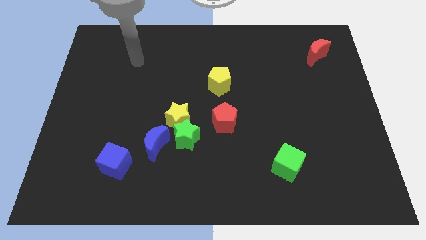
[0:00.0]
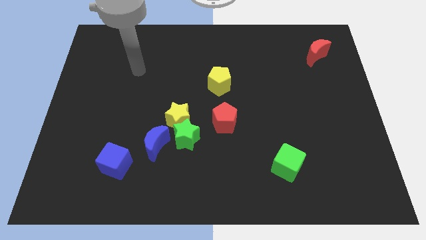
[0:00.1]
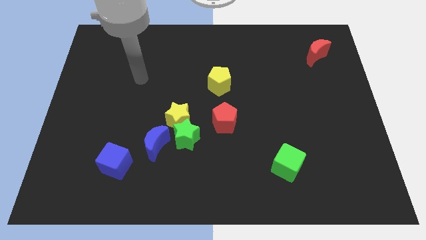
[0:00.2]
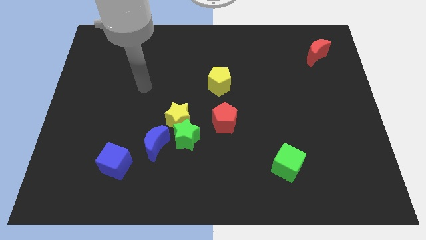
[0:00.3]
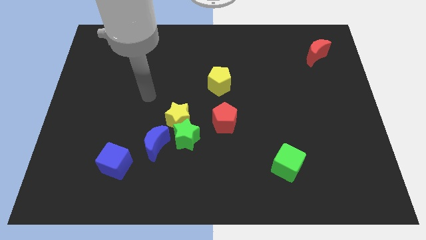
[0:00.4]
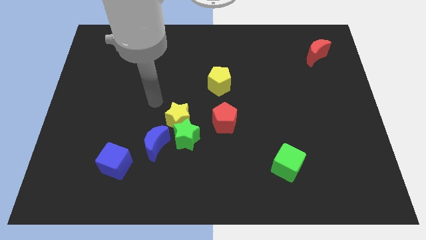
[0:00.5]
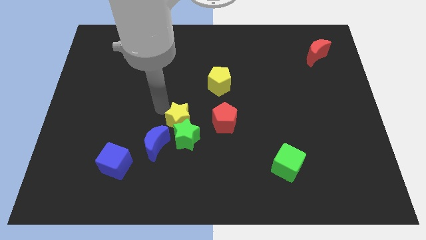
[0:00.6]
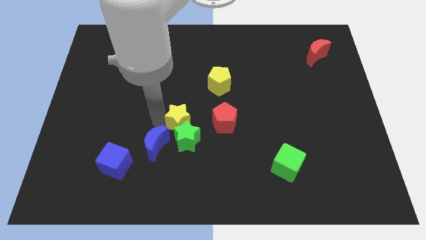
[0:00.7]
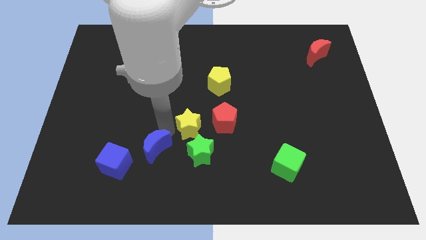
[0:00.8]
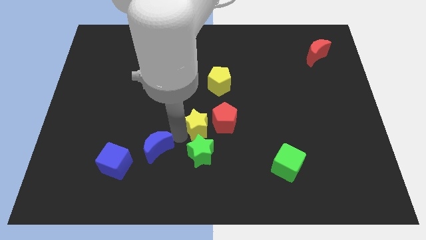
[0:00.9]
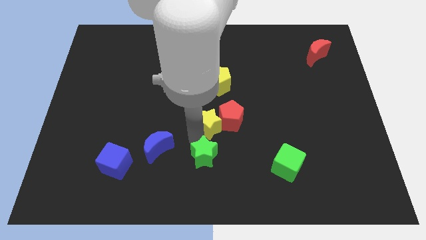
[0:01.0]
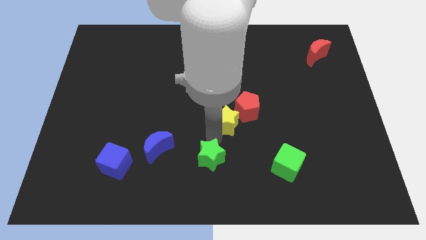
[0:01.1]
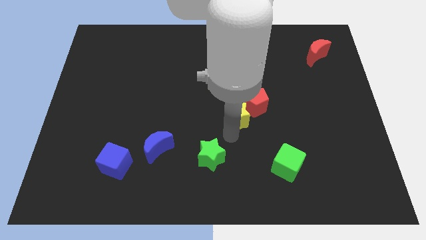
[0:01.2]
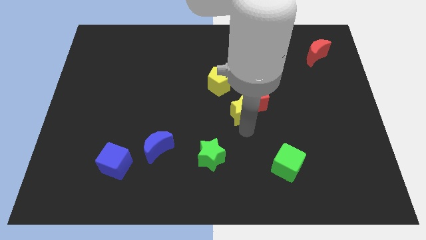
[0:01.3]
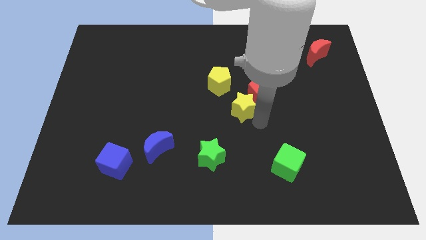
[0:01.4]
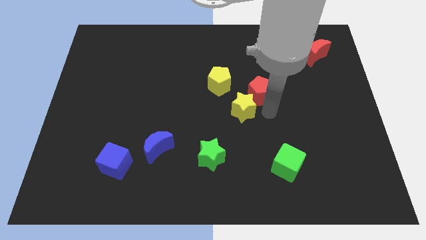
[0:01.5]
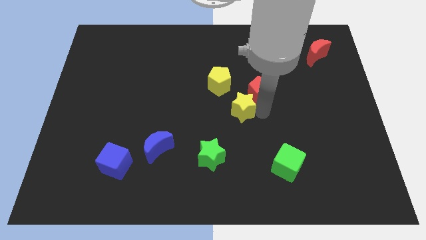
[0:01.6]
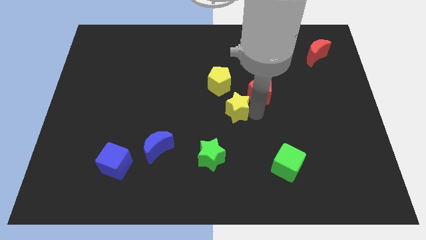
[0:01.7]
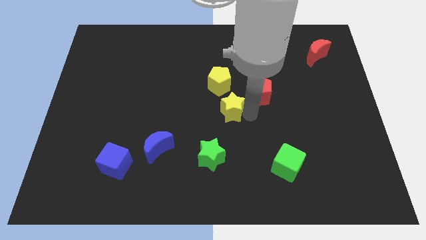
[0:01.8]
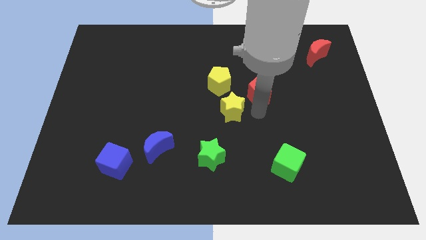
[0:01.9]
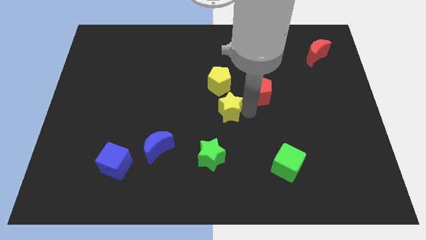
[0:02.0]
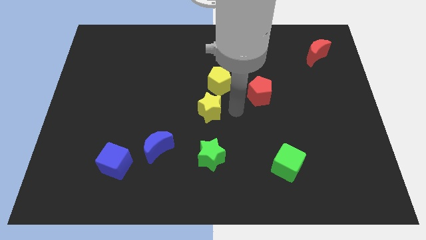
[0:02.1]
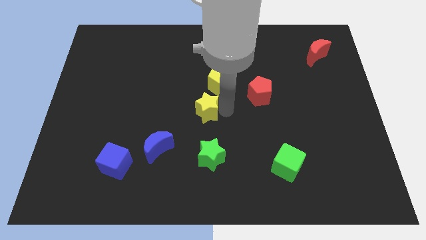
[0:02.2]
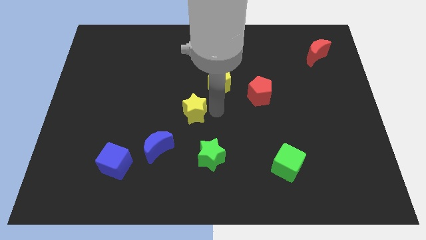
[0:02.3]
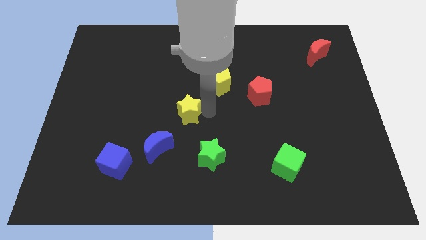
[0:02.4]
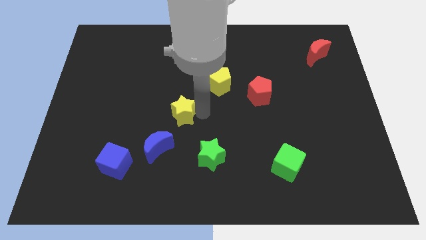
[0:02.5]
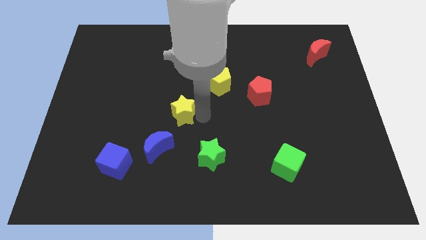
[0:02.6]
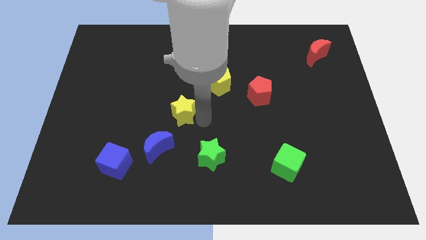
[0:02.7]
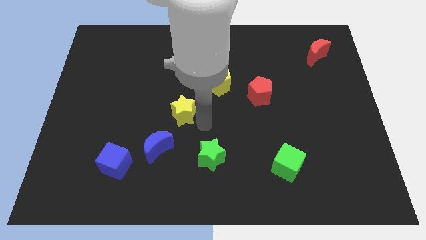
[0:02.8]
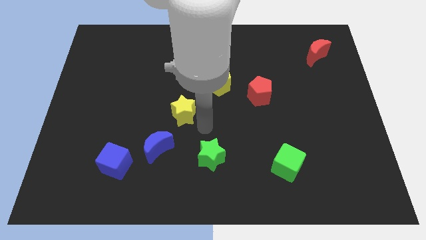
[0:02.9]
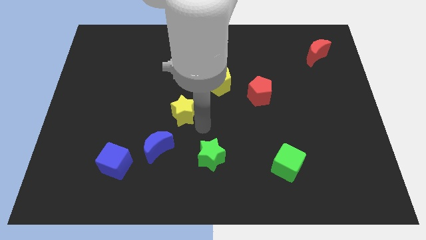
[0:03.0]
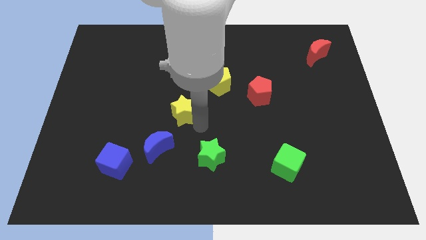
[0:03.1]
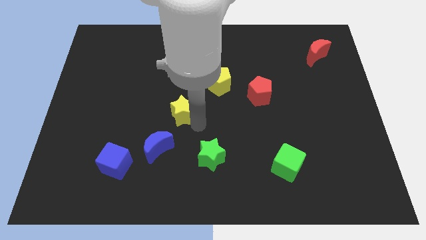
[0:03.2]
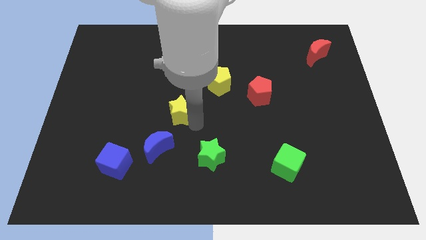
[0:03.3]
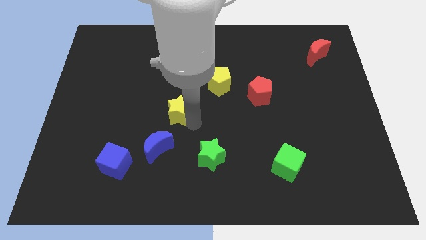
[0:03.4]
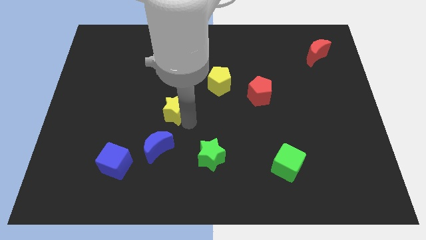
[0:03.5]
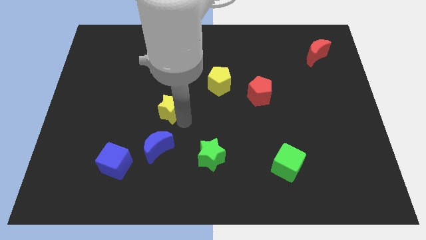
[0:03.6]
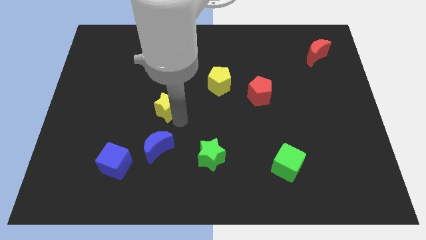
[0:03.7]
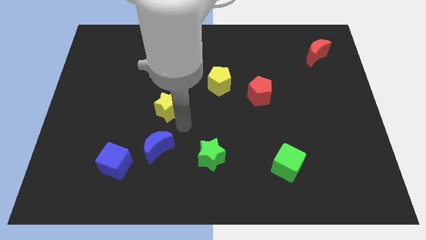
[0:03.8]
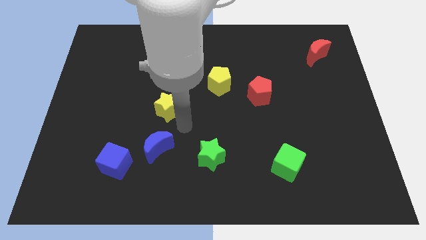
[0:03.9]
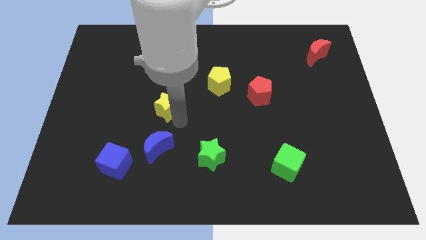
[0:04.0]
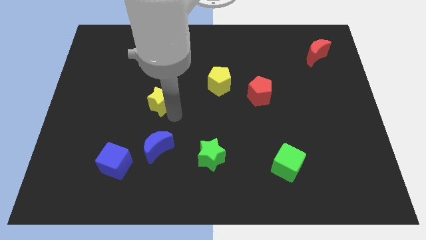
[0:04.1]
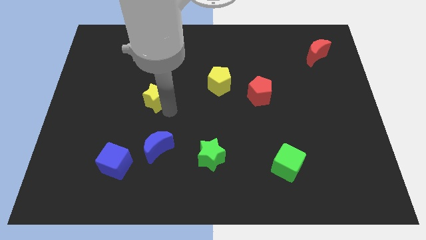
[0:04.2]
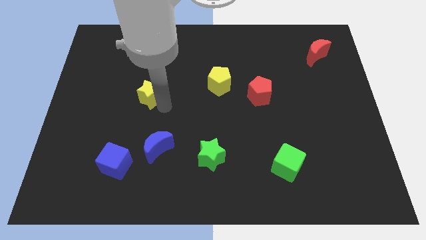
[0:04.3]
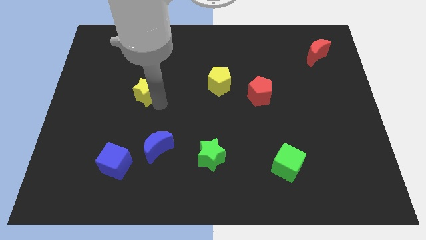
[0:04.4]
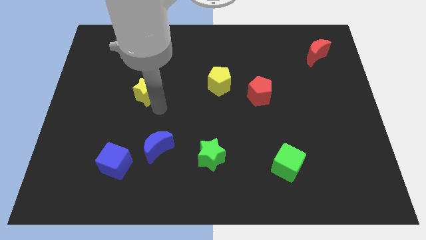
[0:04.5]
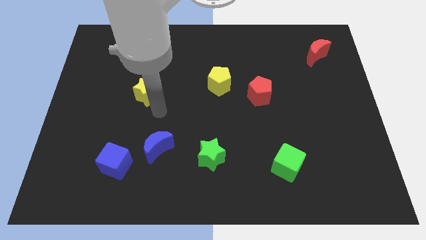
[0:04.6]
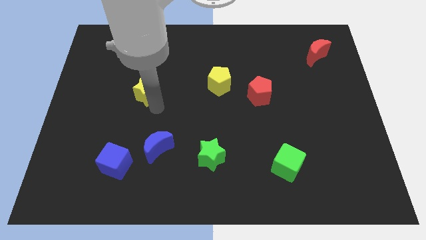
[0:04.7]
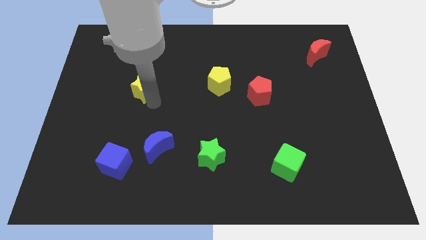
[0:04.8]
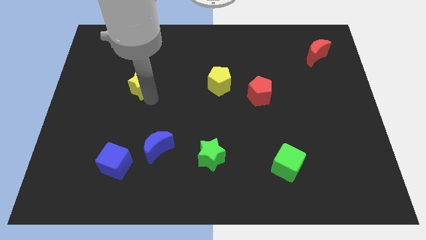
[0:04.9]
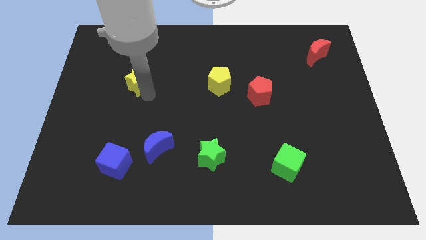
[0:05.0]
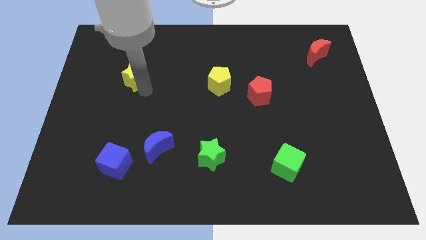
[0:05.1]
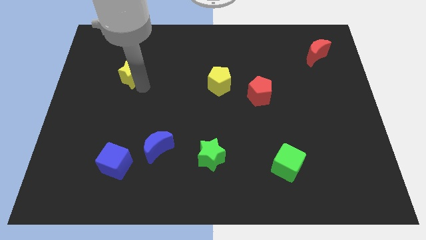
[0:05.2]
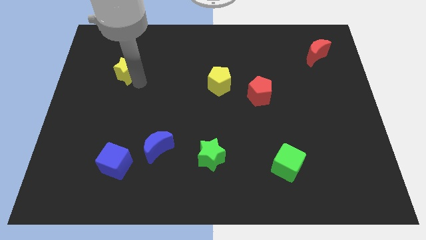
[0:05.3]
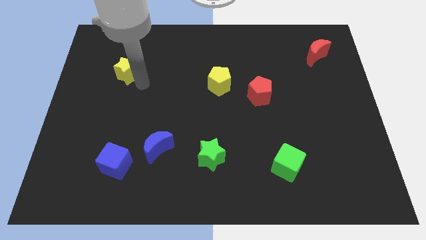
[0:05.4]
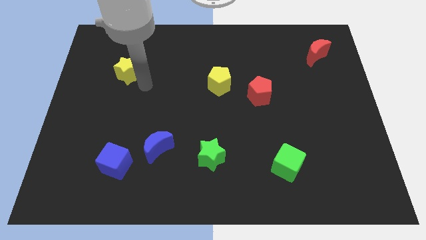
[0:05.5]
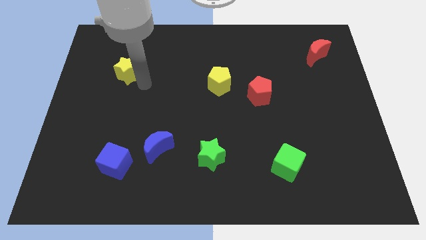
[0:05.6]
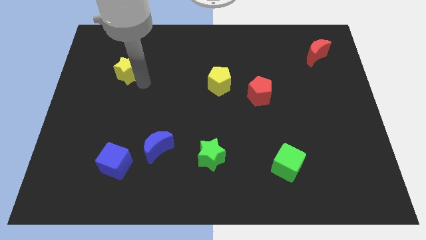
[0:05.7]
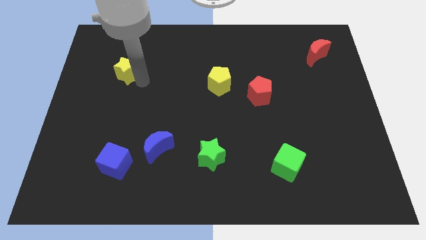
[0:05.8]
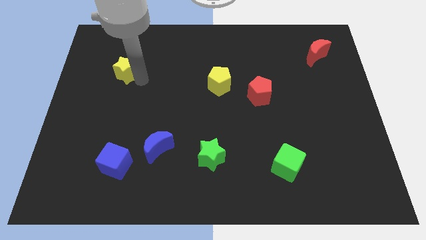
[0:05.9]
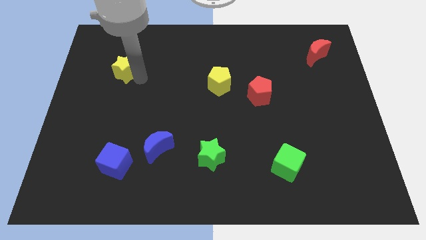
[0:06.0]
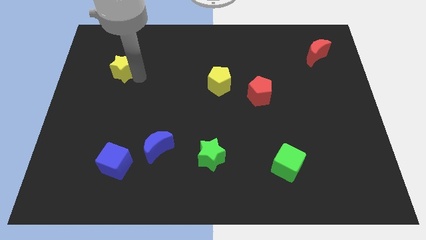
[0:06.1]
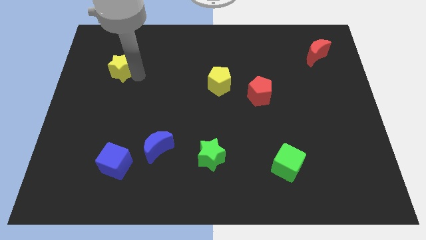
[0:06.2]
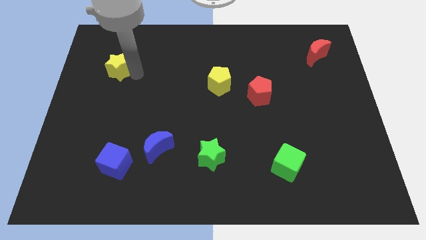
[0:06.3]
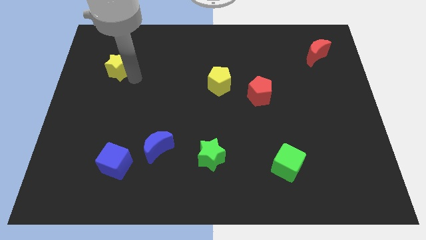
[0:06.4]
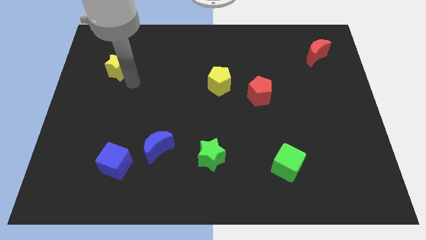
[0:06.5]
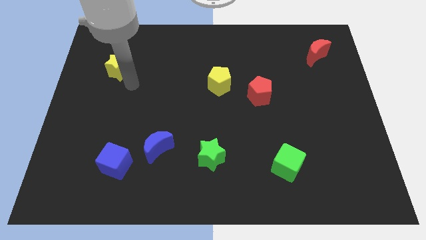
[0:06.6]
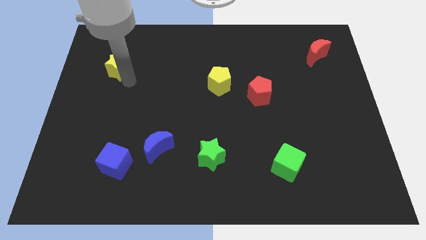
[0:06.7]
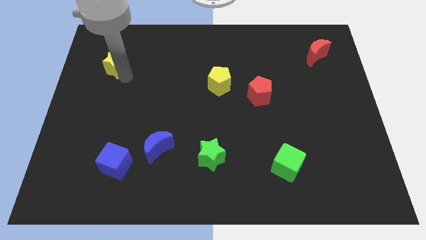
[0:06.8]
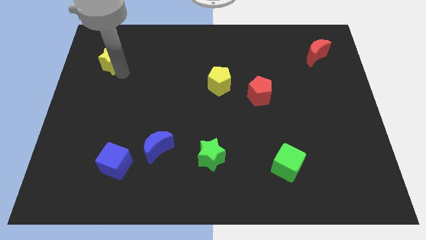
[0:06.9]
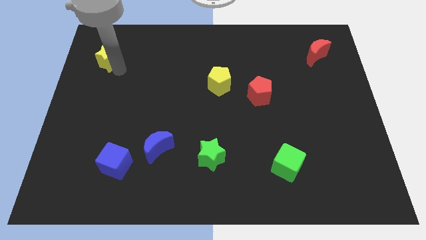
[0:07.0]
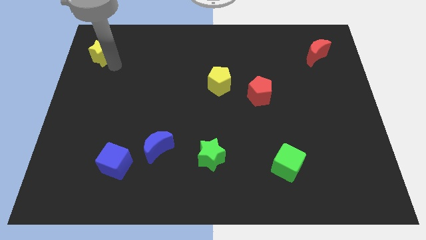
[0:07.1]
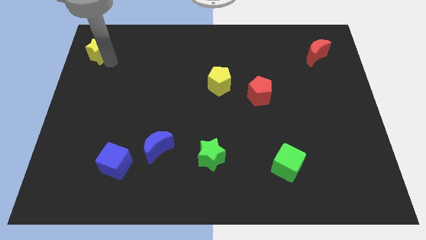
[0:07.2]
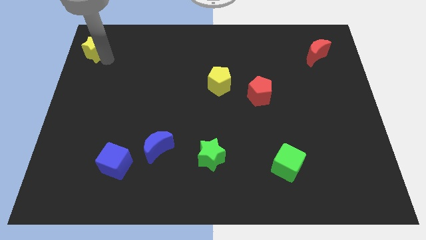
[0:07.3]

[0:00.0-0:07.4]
slide the yellow star to the upper left corner

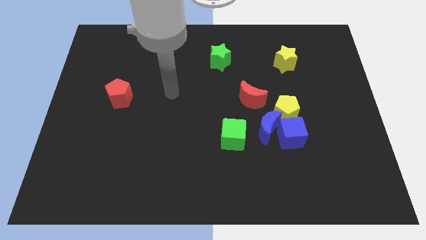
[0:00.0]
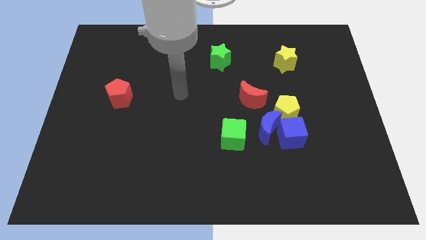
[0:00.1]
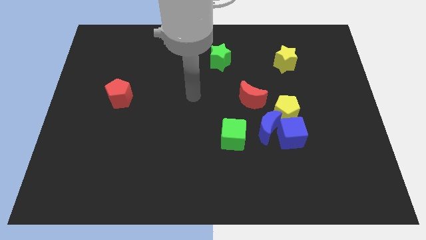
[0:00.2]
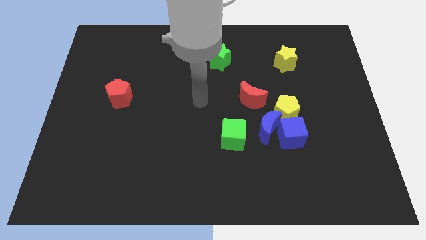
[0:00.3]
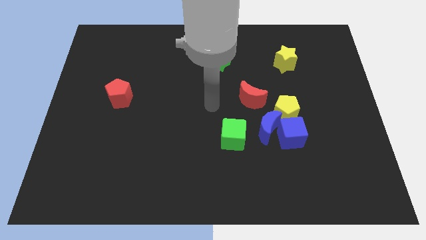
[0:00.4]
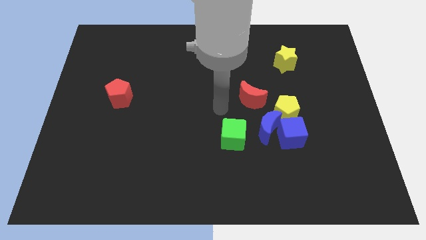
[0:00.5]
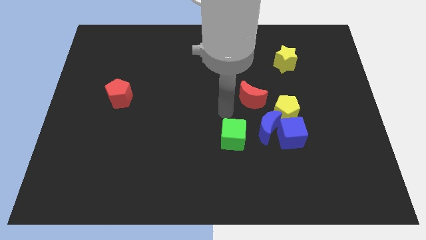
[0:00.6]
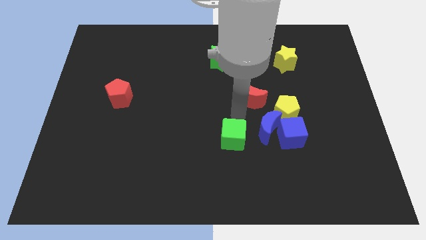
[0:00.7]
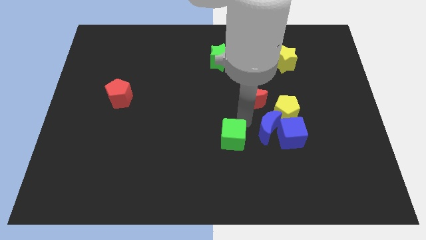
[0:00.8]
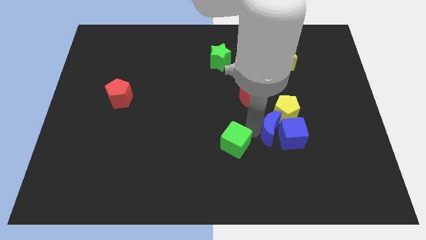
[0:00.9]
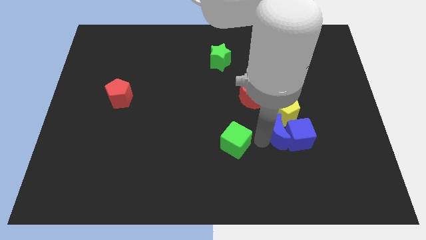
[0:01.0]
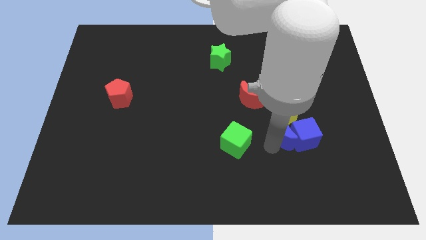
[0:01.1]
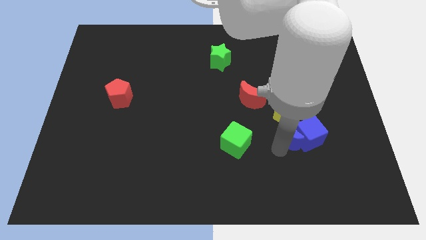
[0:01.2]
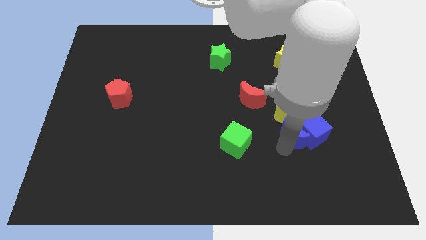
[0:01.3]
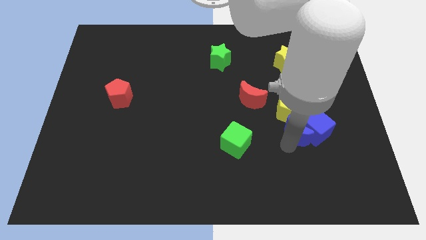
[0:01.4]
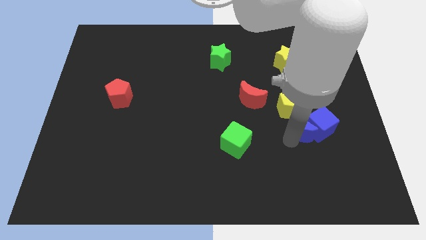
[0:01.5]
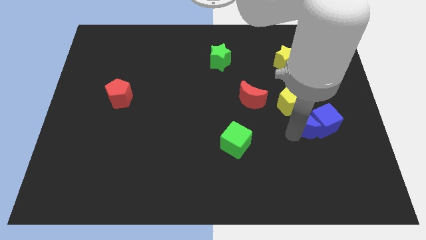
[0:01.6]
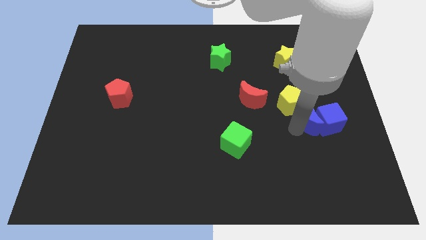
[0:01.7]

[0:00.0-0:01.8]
move the blue cube to the right side
